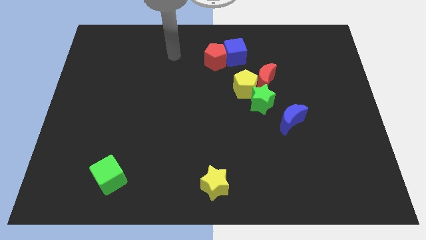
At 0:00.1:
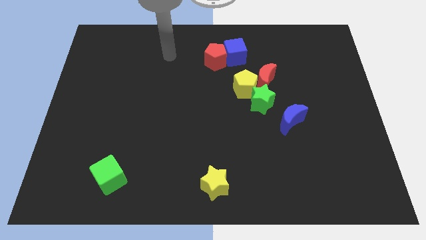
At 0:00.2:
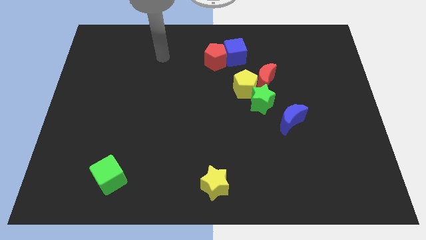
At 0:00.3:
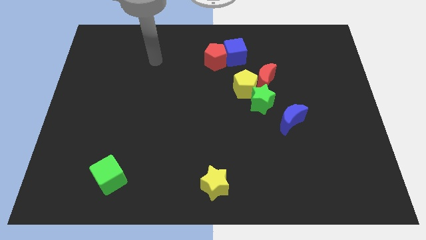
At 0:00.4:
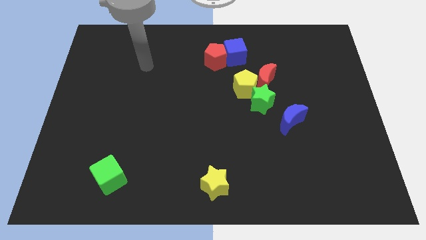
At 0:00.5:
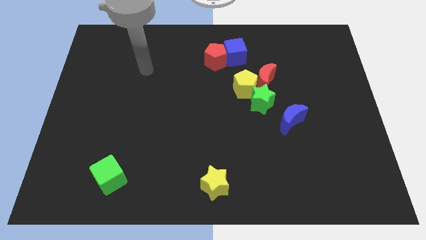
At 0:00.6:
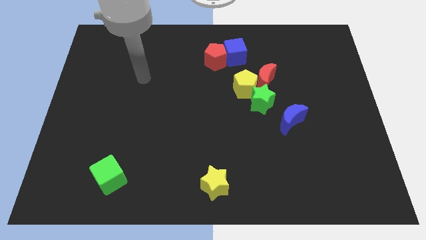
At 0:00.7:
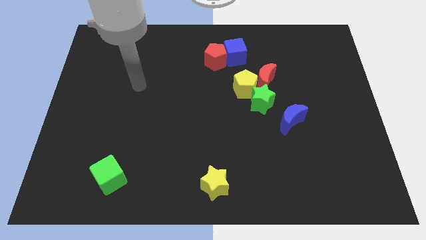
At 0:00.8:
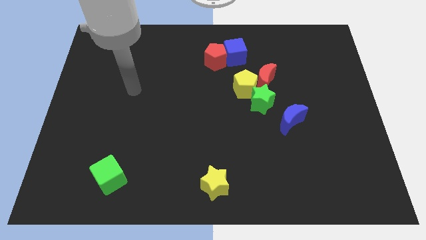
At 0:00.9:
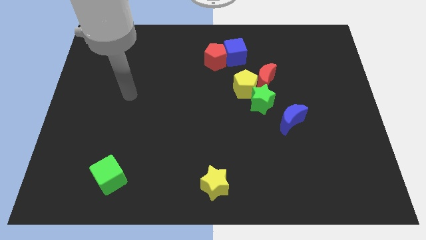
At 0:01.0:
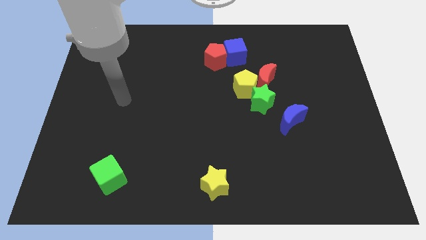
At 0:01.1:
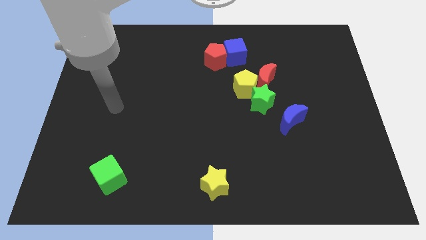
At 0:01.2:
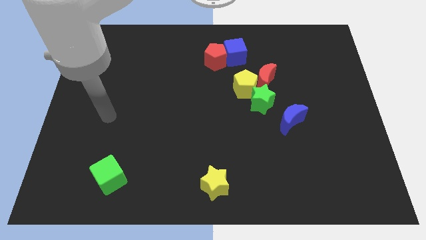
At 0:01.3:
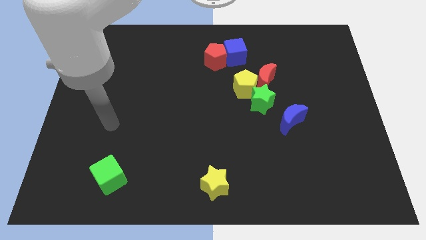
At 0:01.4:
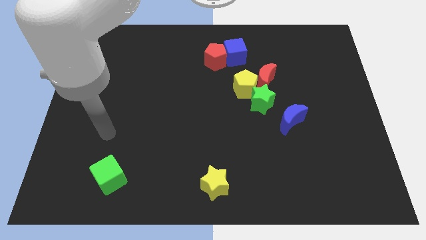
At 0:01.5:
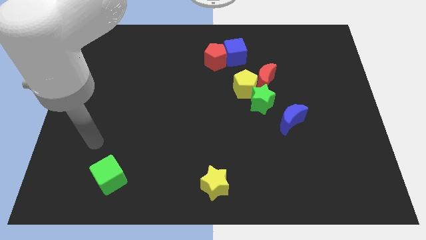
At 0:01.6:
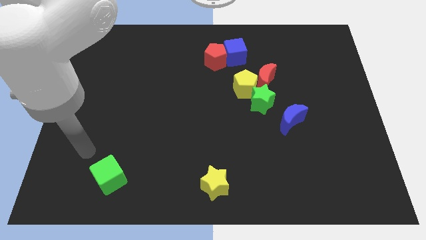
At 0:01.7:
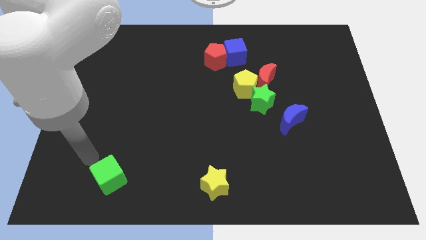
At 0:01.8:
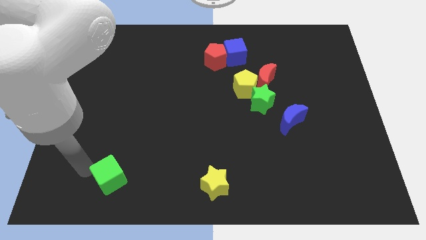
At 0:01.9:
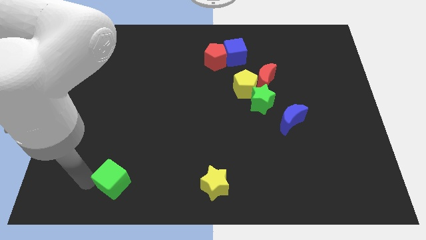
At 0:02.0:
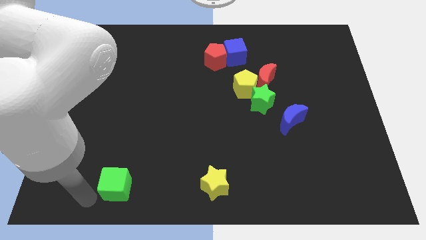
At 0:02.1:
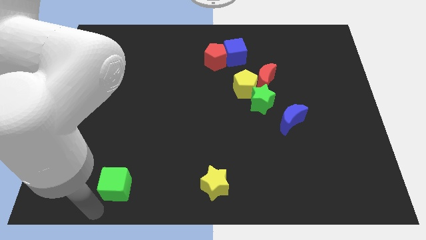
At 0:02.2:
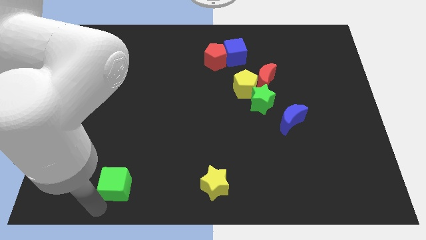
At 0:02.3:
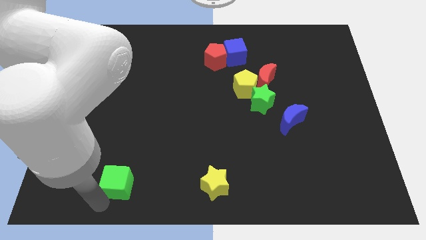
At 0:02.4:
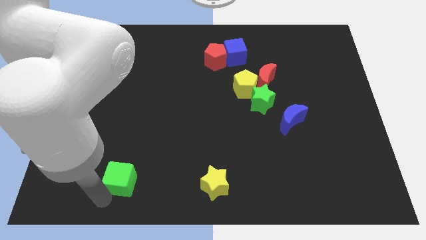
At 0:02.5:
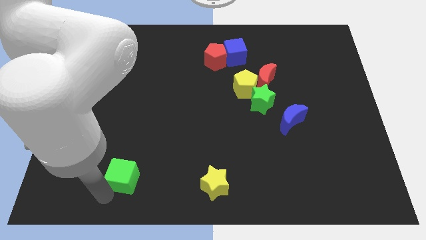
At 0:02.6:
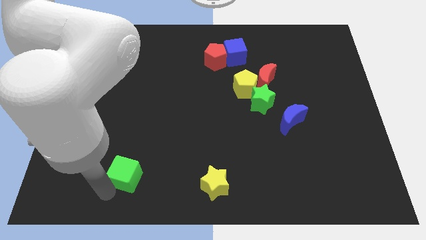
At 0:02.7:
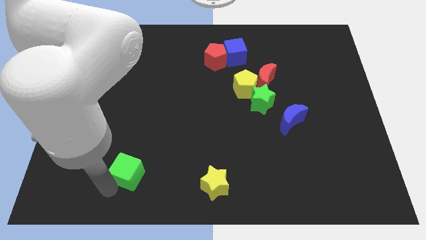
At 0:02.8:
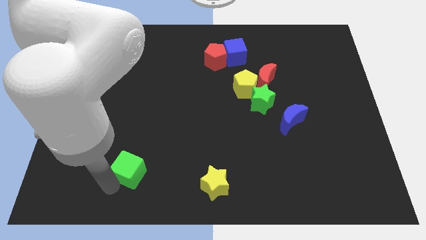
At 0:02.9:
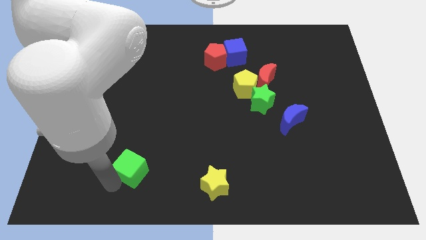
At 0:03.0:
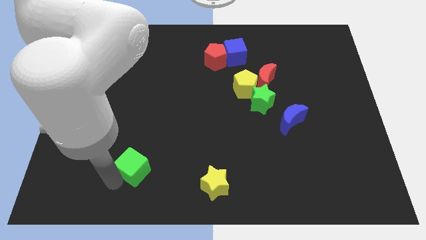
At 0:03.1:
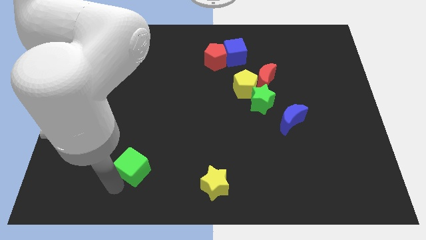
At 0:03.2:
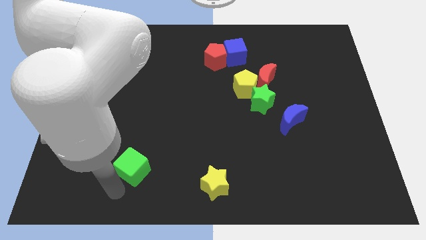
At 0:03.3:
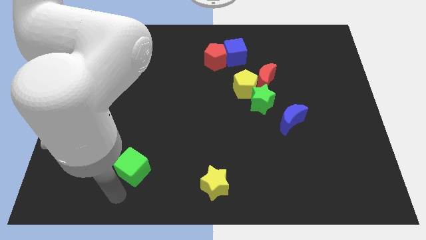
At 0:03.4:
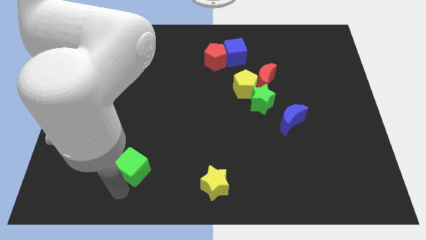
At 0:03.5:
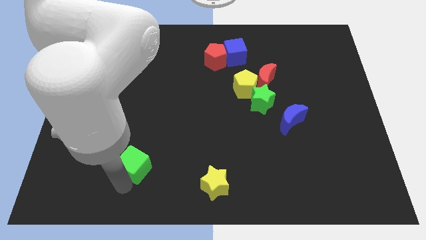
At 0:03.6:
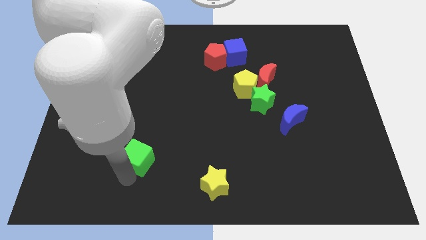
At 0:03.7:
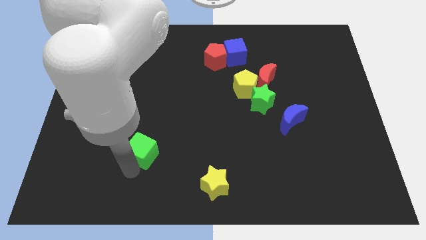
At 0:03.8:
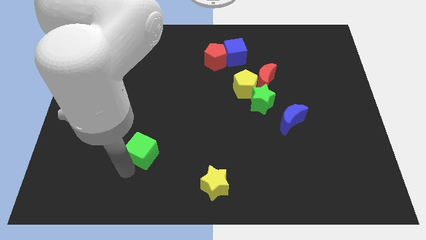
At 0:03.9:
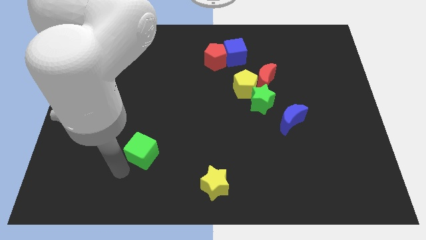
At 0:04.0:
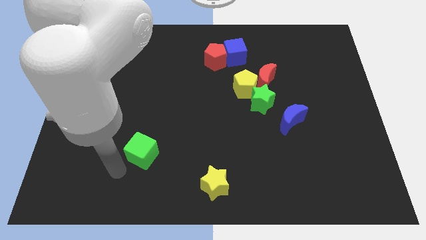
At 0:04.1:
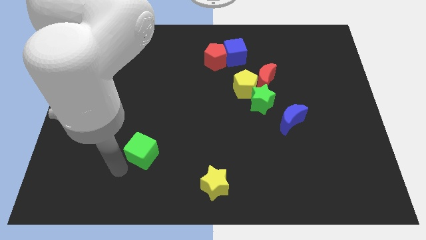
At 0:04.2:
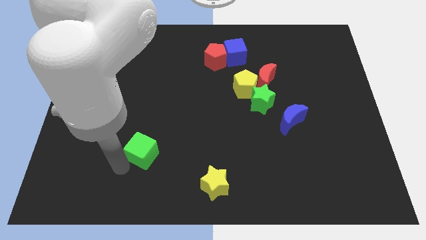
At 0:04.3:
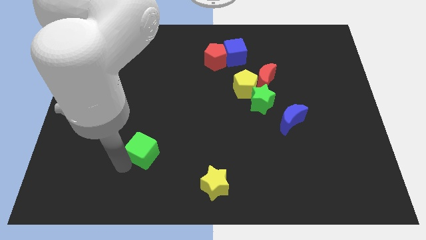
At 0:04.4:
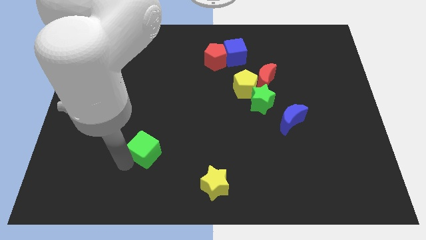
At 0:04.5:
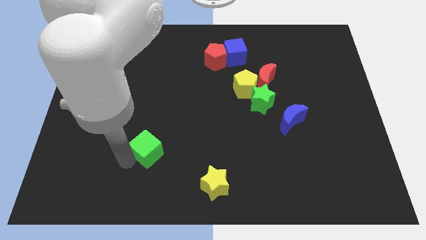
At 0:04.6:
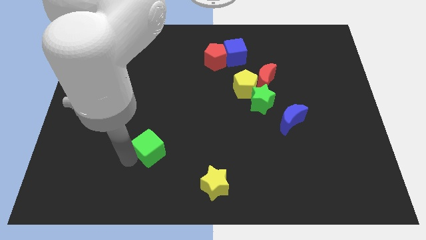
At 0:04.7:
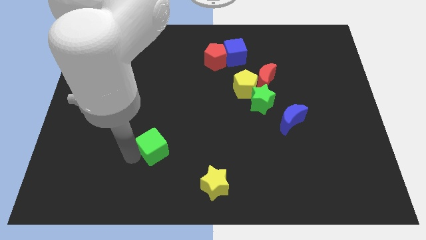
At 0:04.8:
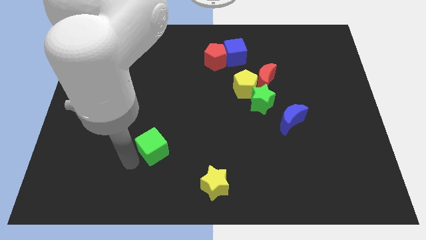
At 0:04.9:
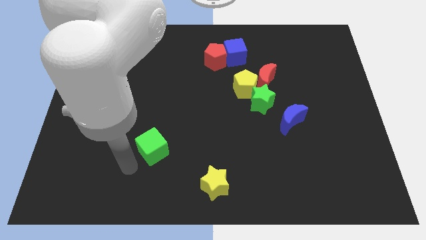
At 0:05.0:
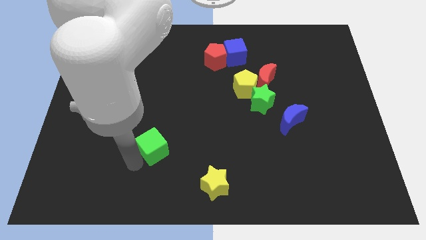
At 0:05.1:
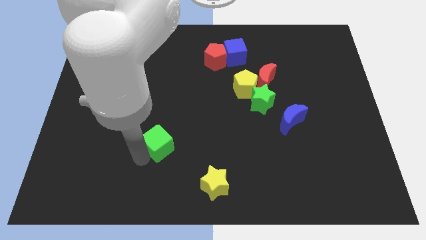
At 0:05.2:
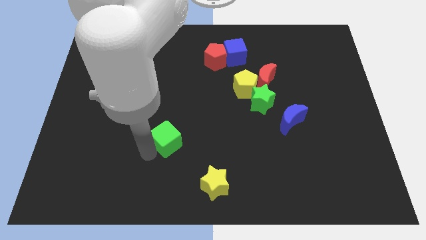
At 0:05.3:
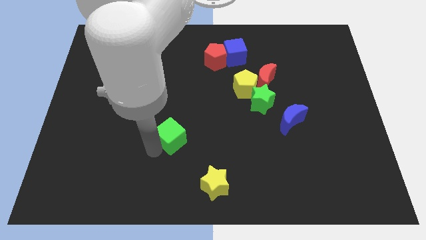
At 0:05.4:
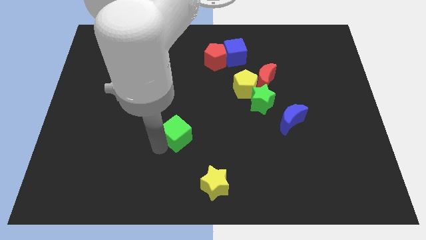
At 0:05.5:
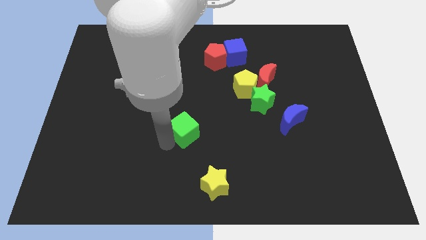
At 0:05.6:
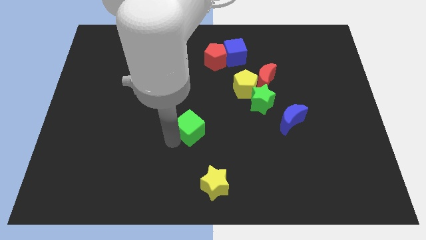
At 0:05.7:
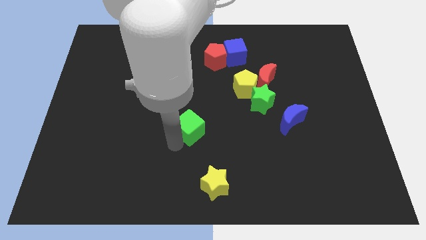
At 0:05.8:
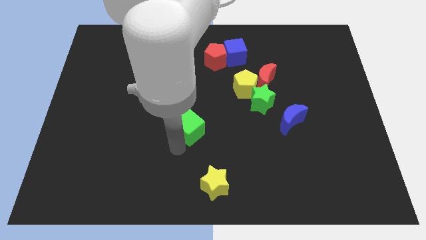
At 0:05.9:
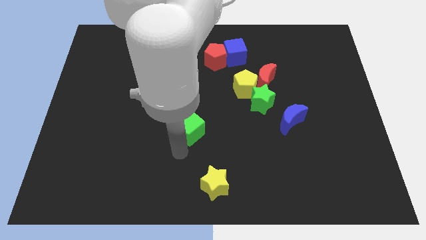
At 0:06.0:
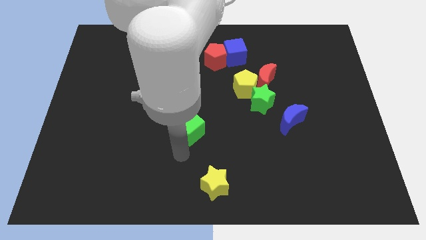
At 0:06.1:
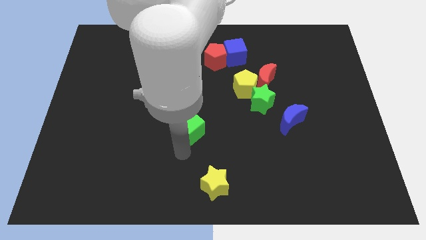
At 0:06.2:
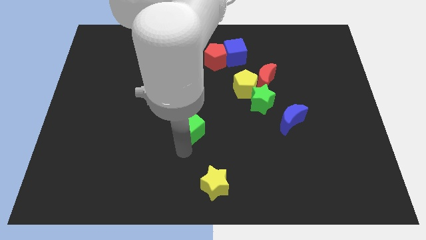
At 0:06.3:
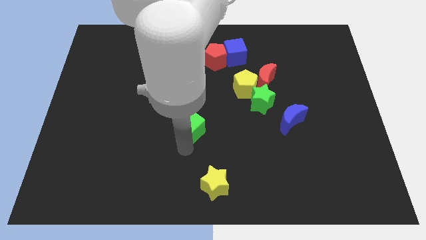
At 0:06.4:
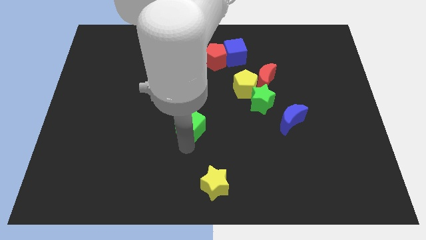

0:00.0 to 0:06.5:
slide the green cube diagonally upwards and right

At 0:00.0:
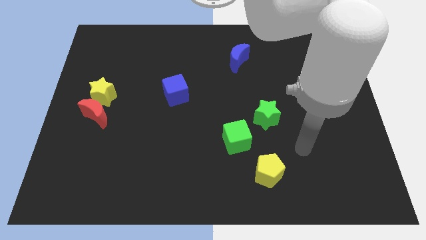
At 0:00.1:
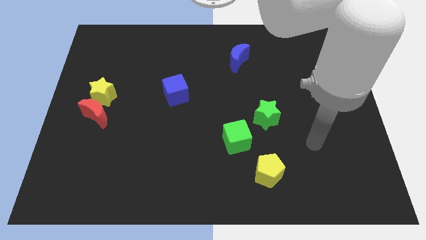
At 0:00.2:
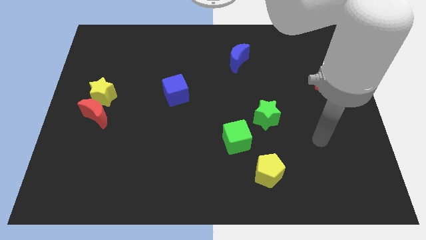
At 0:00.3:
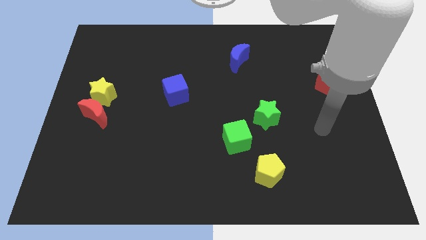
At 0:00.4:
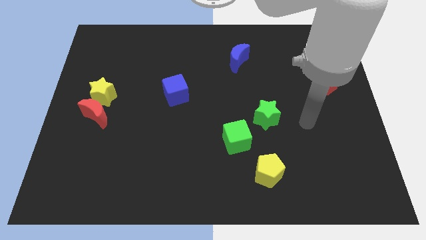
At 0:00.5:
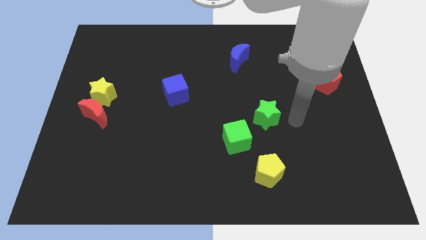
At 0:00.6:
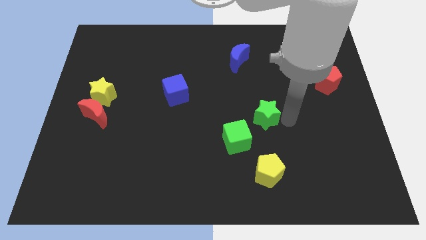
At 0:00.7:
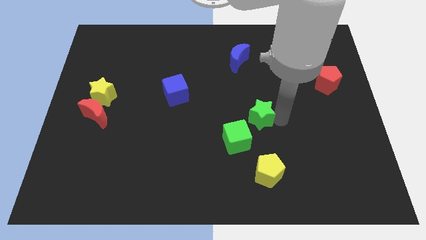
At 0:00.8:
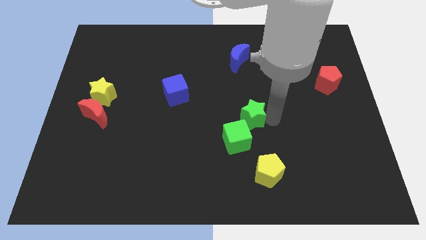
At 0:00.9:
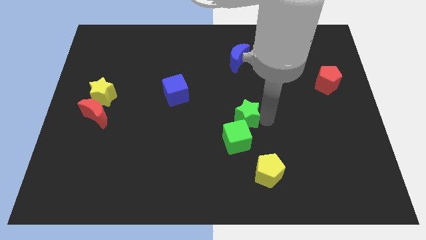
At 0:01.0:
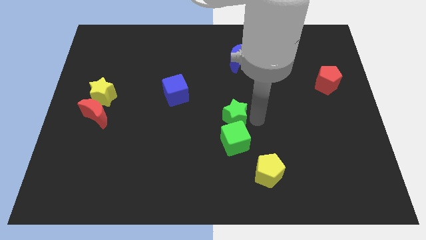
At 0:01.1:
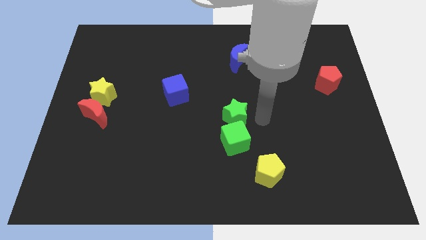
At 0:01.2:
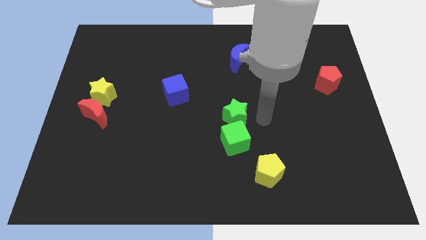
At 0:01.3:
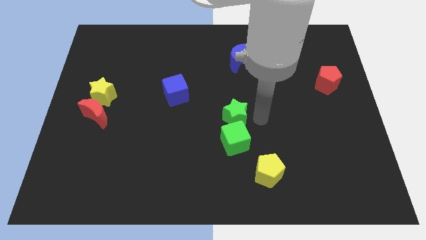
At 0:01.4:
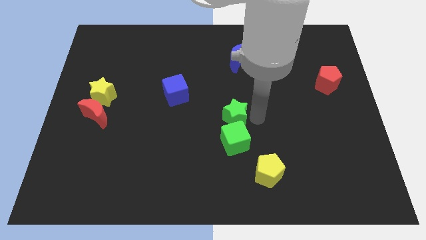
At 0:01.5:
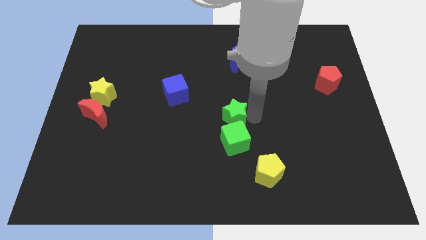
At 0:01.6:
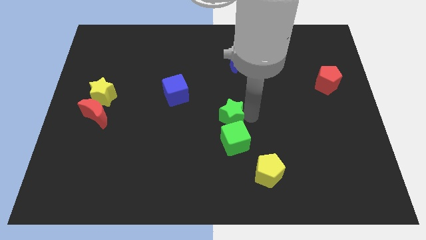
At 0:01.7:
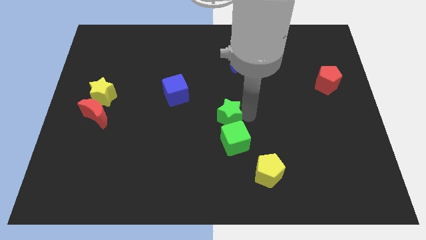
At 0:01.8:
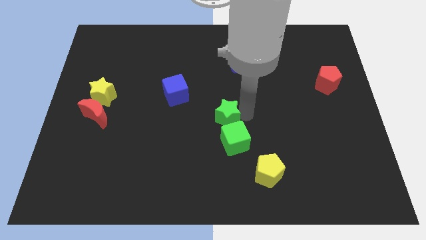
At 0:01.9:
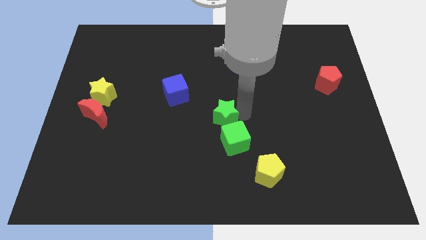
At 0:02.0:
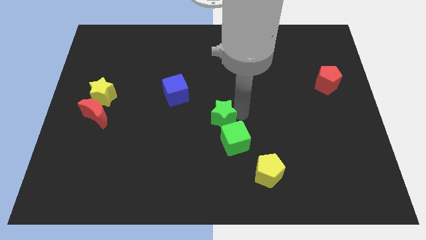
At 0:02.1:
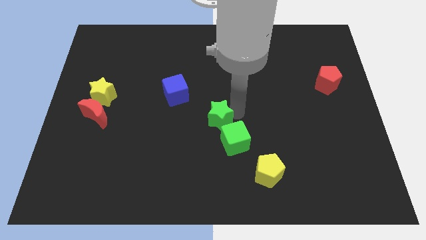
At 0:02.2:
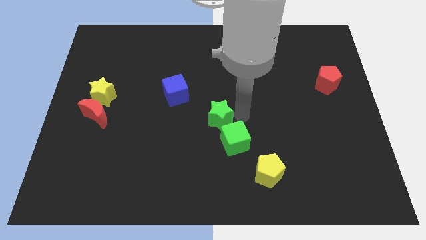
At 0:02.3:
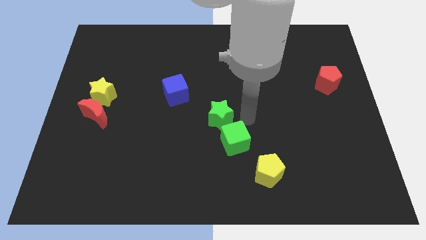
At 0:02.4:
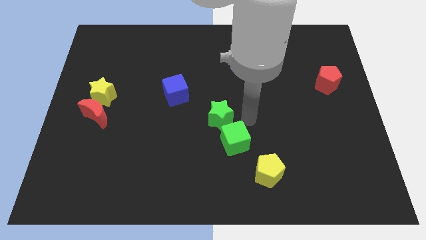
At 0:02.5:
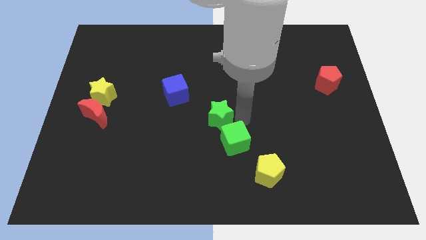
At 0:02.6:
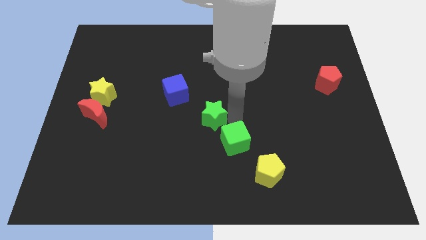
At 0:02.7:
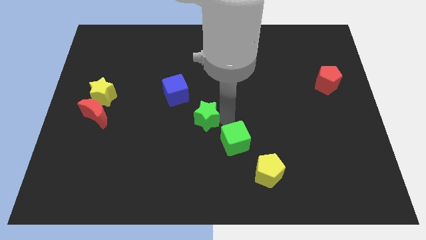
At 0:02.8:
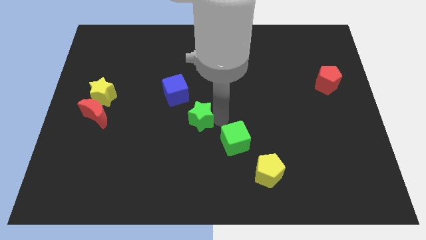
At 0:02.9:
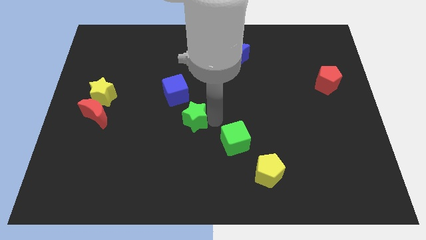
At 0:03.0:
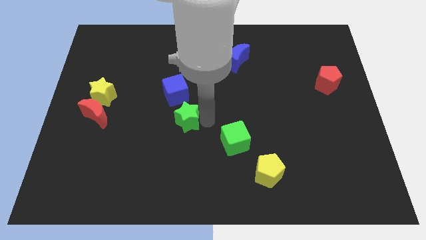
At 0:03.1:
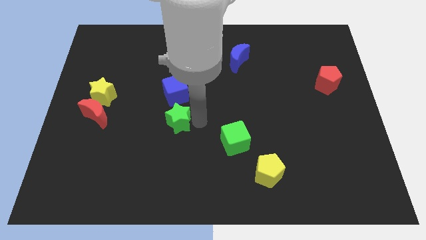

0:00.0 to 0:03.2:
push the green star left
